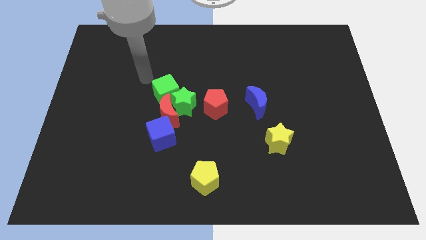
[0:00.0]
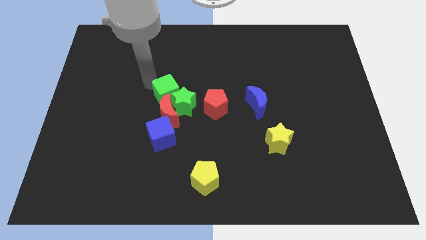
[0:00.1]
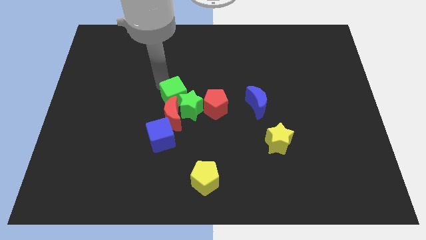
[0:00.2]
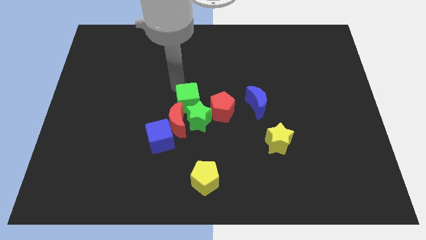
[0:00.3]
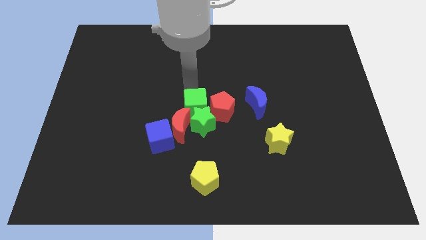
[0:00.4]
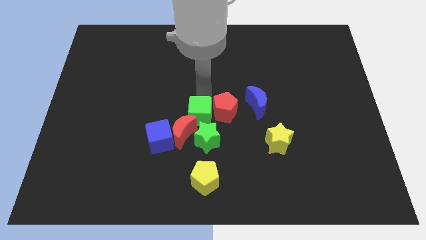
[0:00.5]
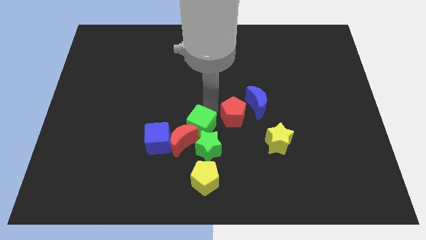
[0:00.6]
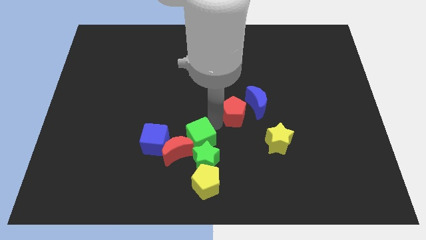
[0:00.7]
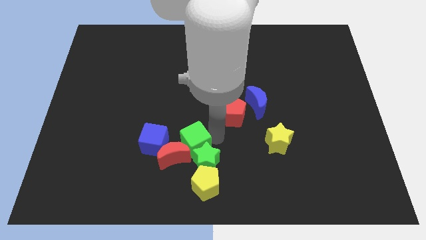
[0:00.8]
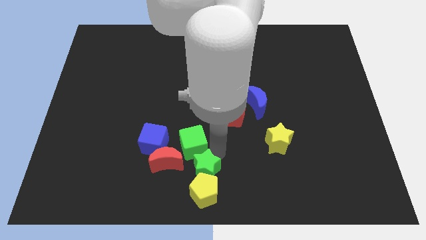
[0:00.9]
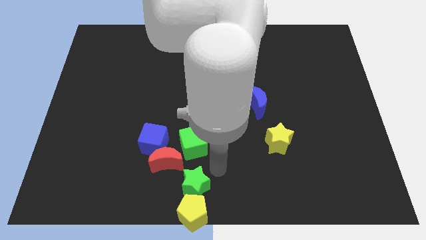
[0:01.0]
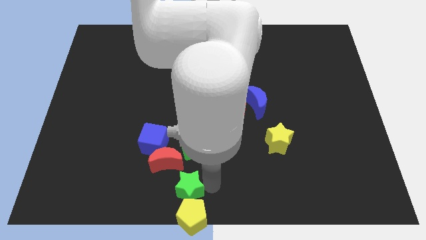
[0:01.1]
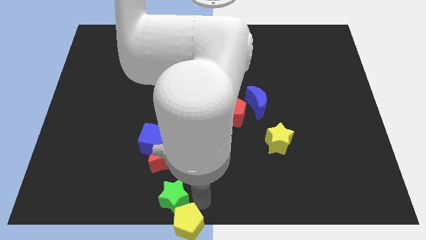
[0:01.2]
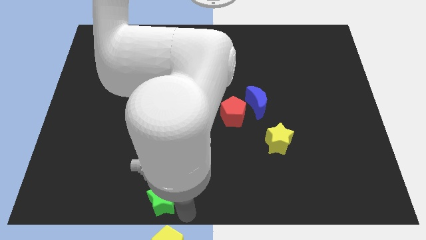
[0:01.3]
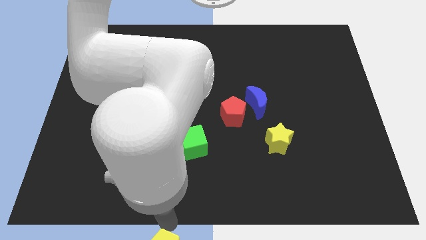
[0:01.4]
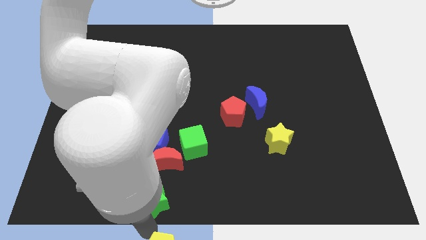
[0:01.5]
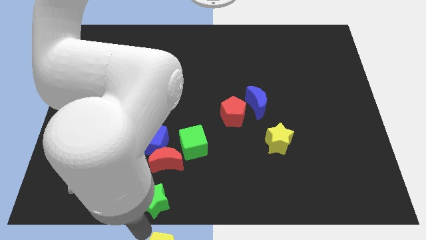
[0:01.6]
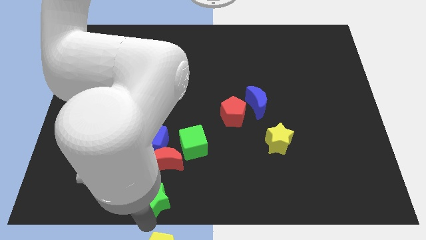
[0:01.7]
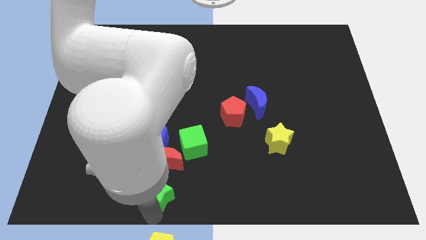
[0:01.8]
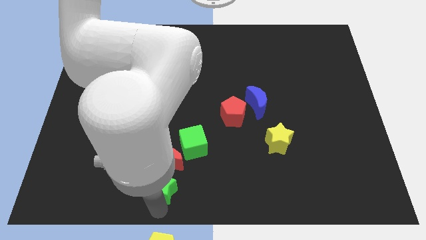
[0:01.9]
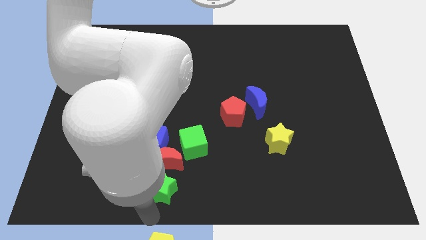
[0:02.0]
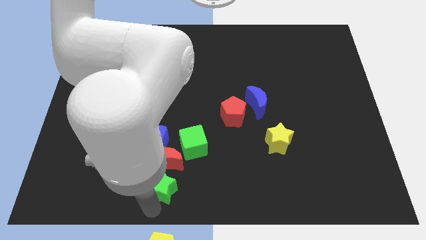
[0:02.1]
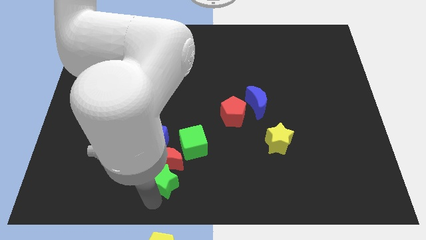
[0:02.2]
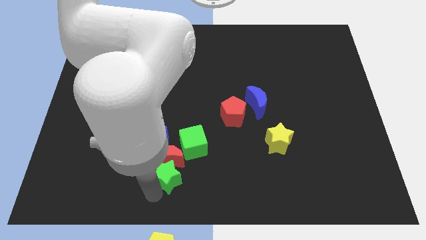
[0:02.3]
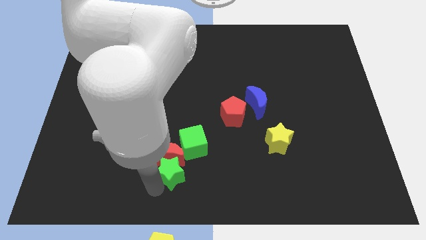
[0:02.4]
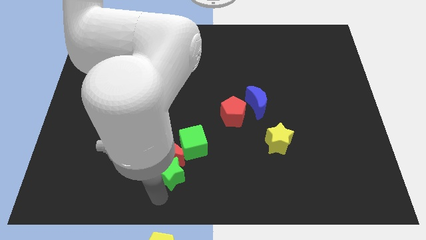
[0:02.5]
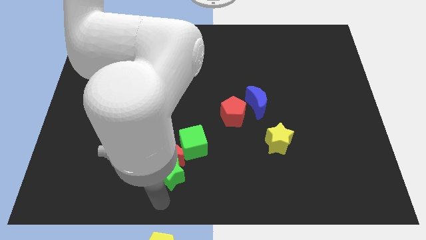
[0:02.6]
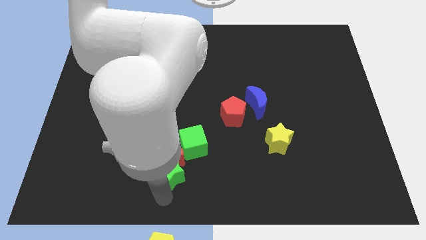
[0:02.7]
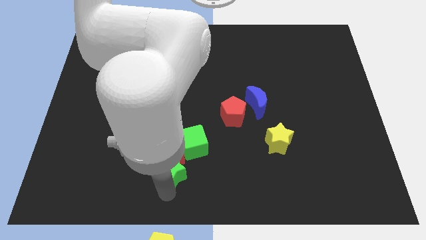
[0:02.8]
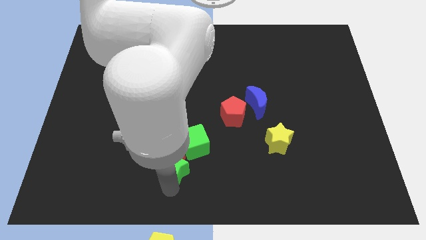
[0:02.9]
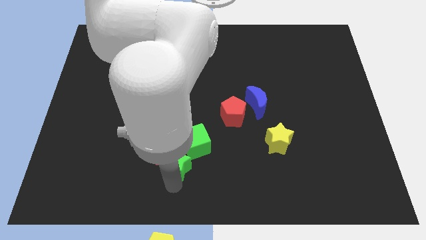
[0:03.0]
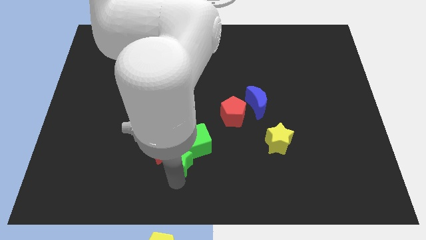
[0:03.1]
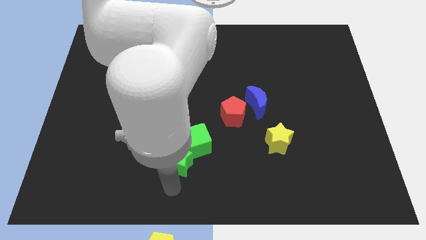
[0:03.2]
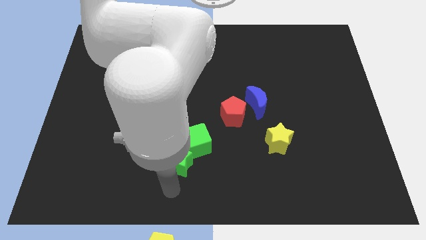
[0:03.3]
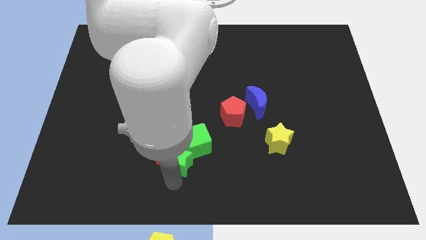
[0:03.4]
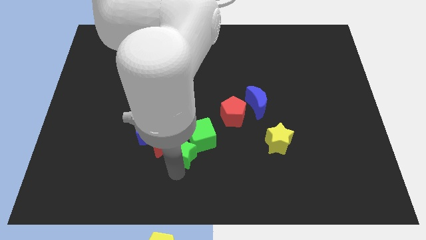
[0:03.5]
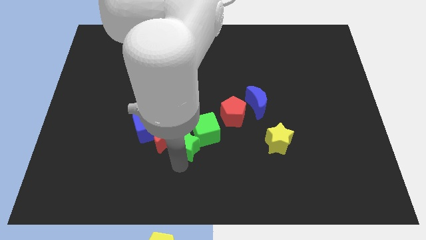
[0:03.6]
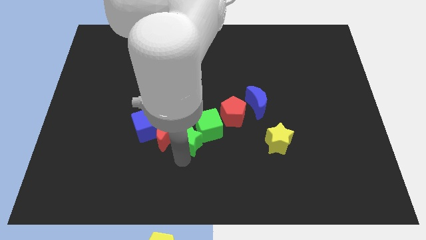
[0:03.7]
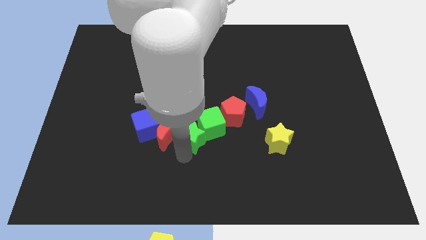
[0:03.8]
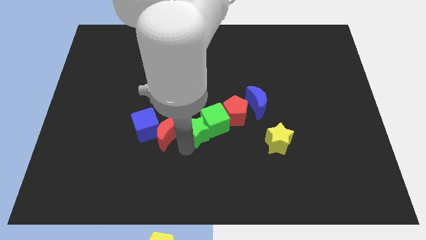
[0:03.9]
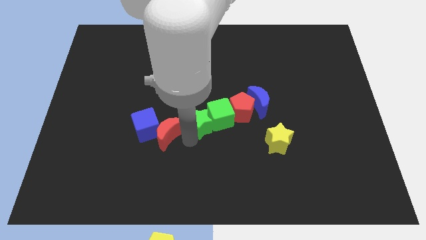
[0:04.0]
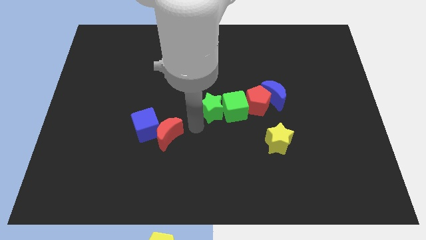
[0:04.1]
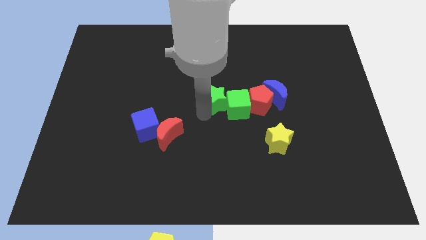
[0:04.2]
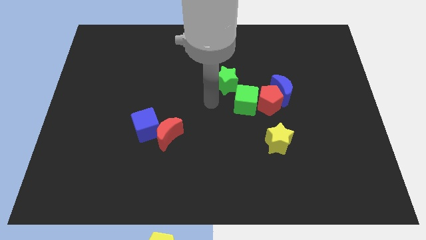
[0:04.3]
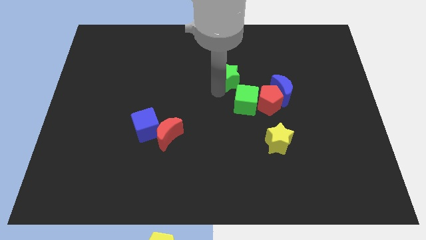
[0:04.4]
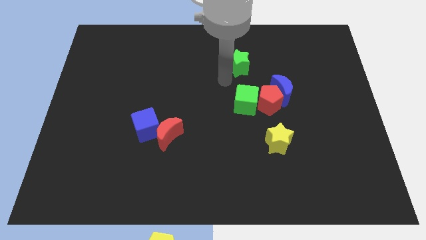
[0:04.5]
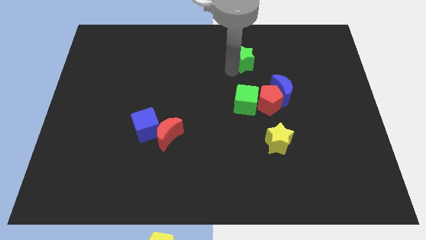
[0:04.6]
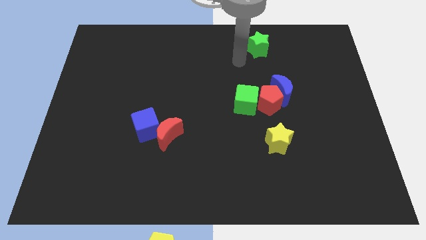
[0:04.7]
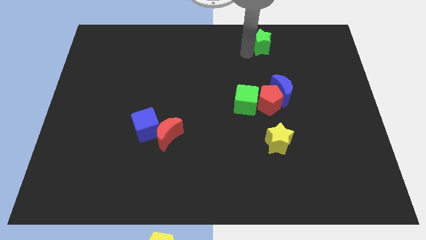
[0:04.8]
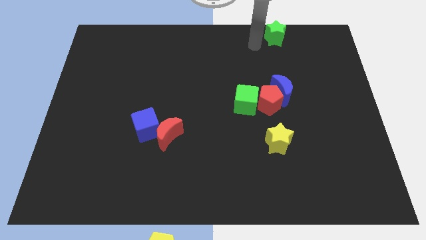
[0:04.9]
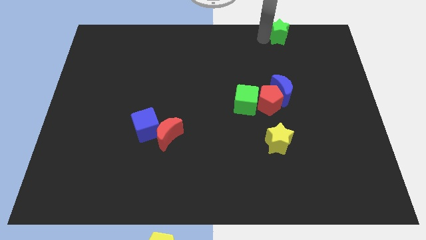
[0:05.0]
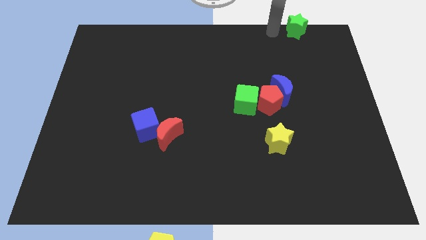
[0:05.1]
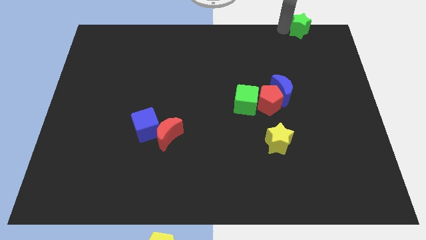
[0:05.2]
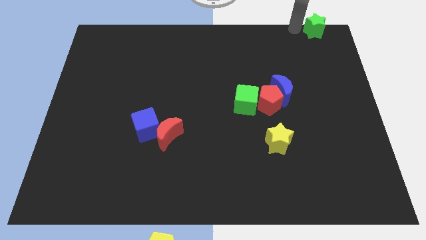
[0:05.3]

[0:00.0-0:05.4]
push the green star to the top right of the board

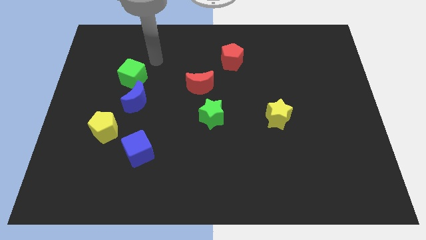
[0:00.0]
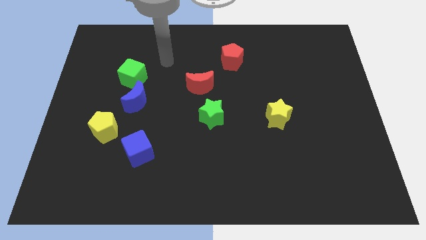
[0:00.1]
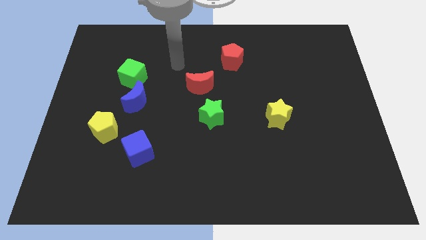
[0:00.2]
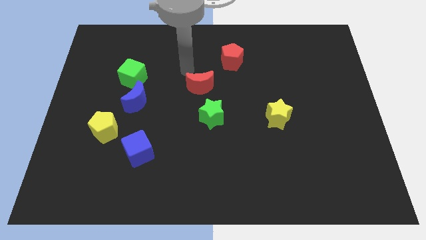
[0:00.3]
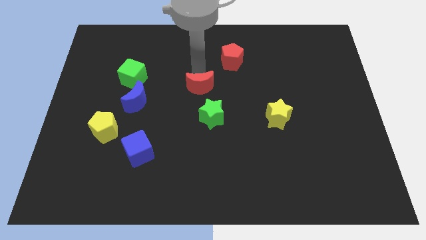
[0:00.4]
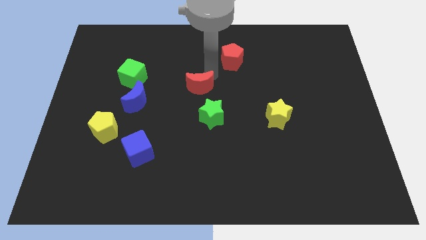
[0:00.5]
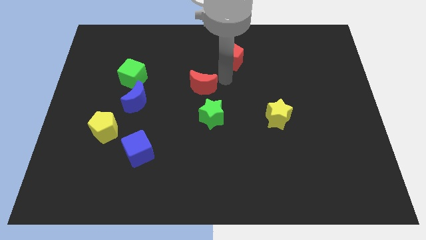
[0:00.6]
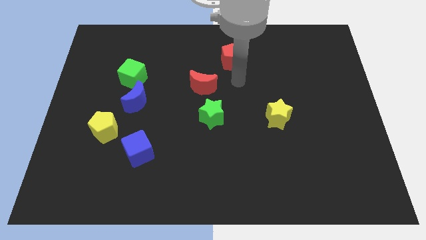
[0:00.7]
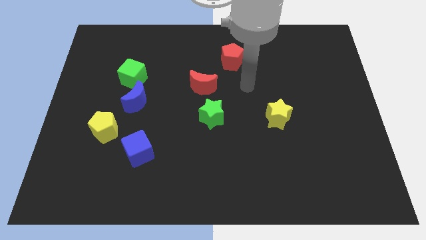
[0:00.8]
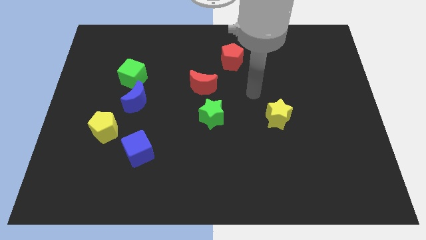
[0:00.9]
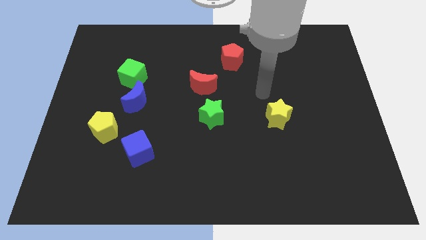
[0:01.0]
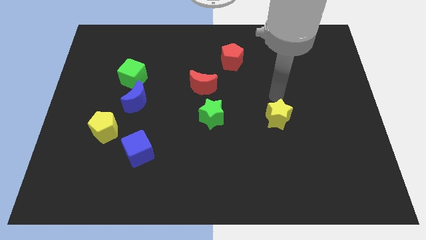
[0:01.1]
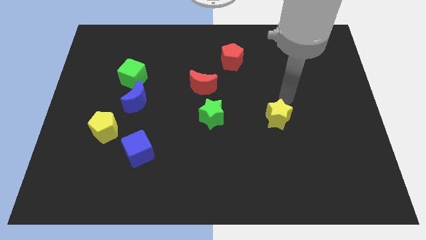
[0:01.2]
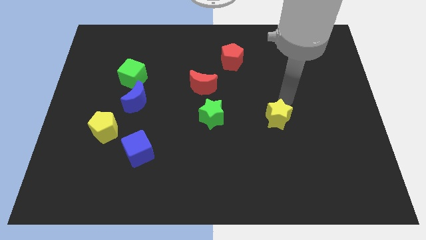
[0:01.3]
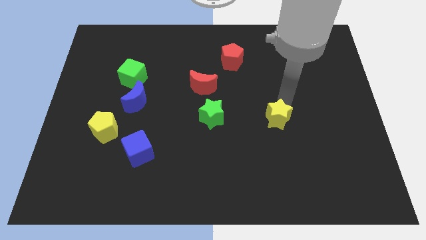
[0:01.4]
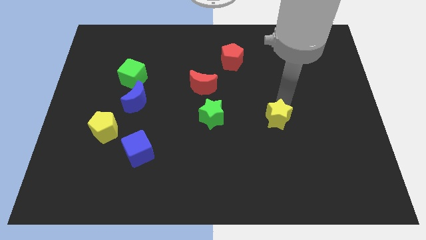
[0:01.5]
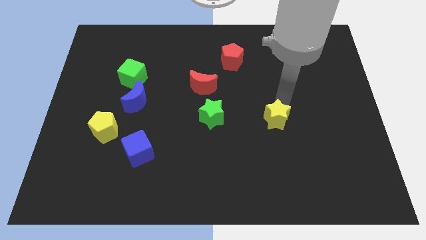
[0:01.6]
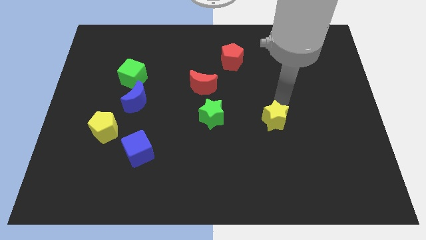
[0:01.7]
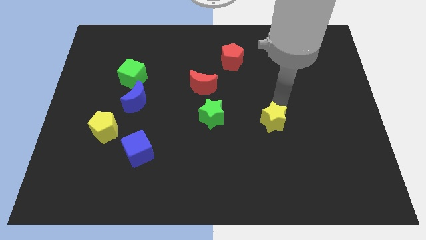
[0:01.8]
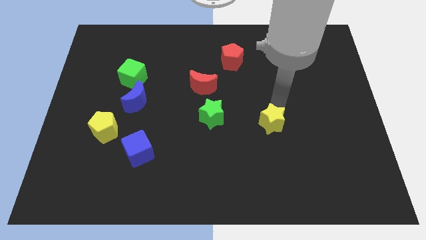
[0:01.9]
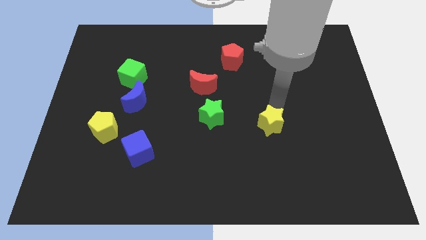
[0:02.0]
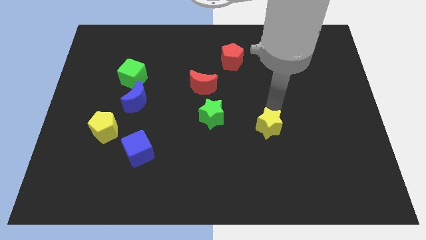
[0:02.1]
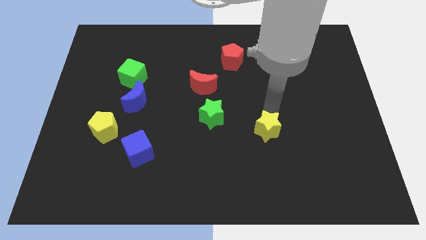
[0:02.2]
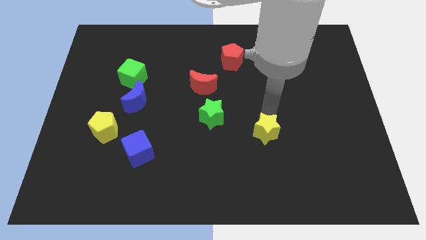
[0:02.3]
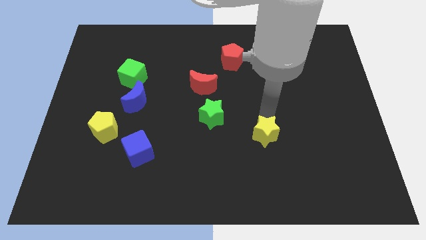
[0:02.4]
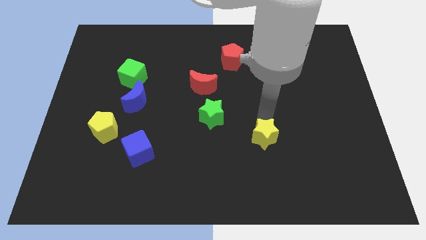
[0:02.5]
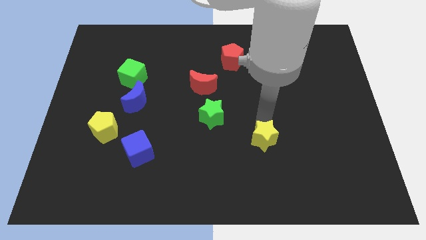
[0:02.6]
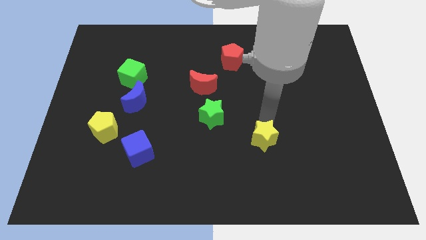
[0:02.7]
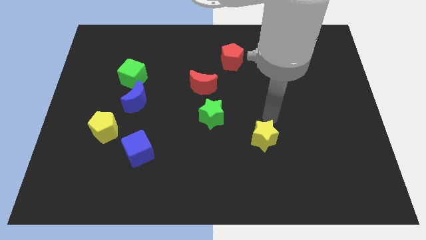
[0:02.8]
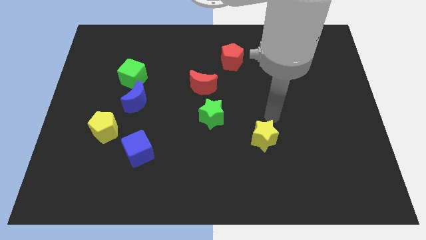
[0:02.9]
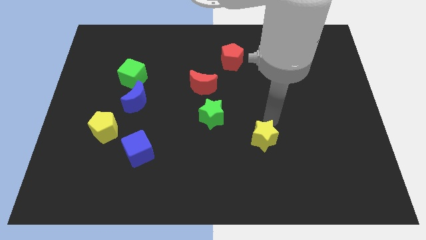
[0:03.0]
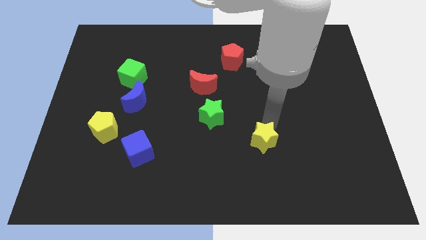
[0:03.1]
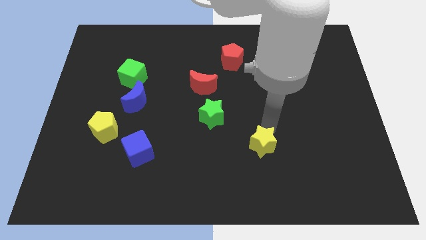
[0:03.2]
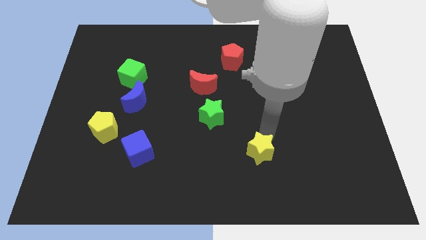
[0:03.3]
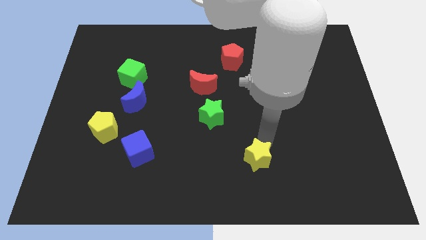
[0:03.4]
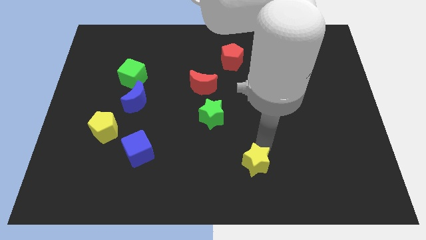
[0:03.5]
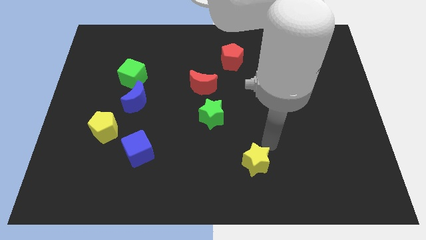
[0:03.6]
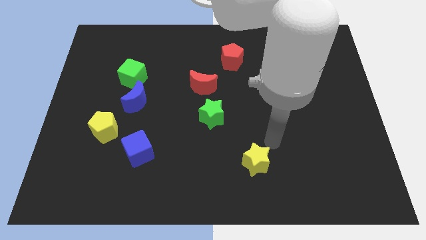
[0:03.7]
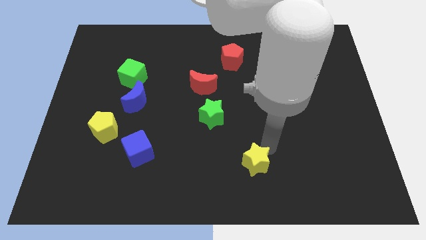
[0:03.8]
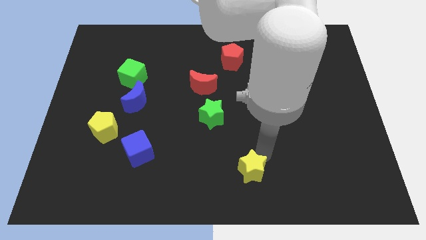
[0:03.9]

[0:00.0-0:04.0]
slide the yellow star to the bottom
